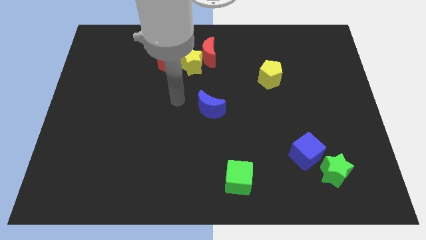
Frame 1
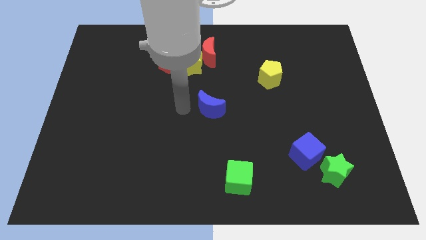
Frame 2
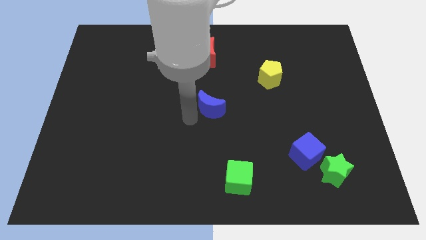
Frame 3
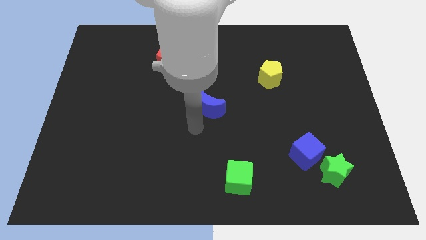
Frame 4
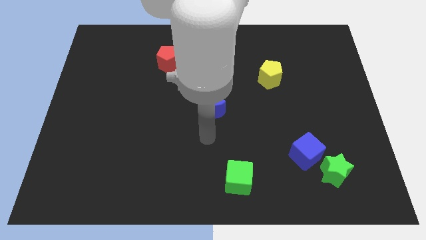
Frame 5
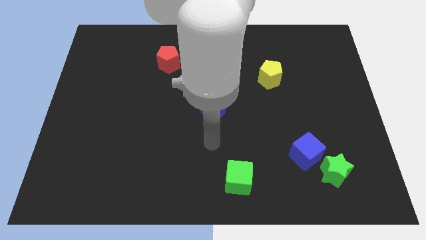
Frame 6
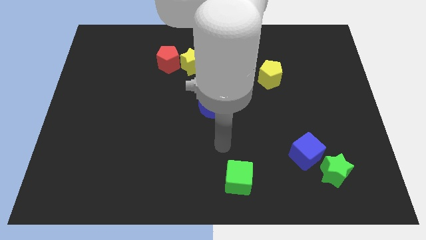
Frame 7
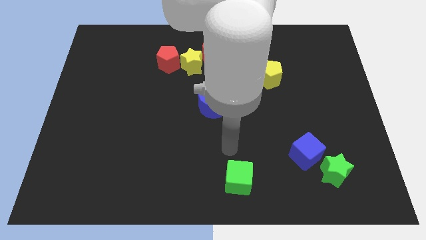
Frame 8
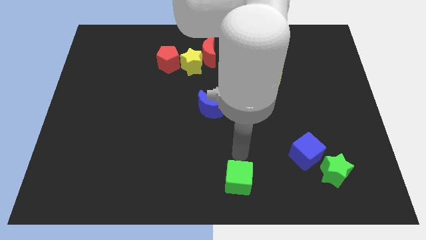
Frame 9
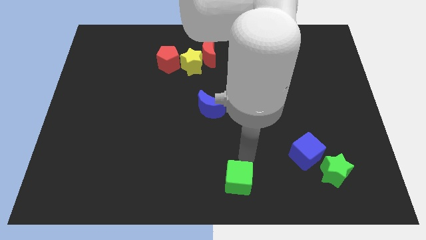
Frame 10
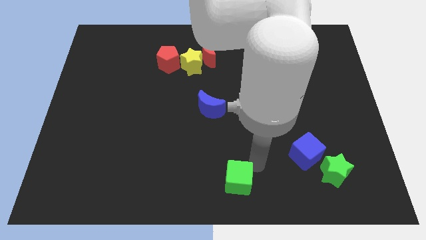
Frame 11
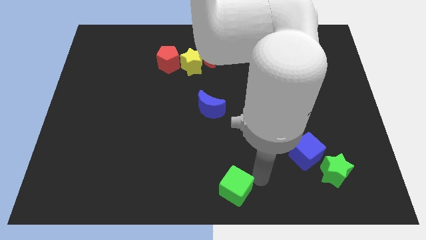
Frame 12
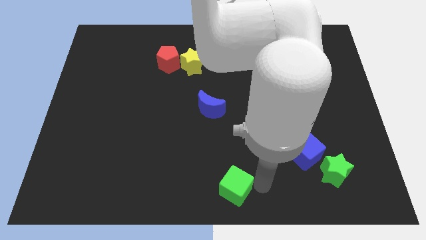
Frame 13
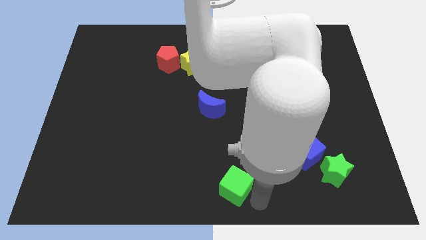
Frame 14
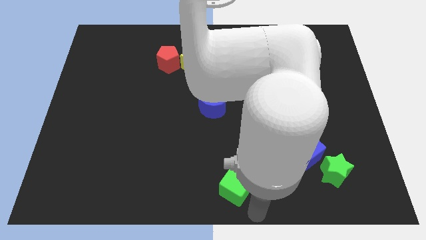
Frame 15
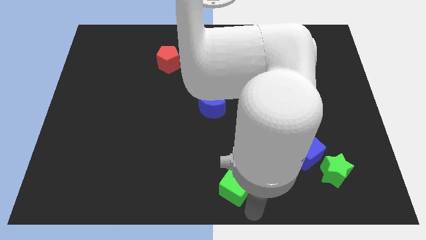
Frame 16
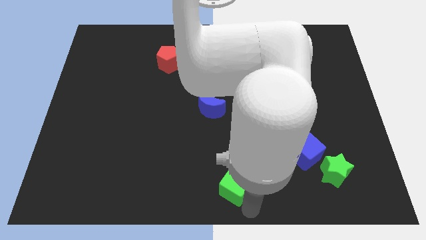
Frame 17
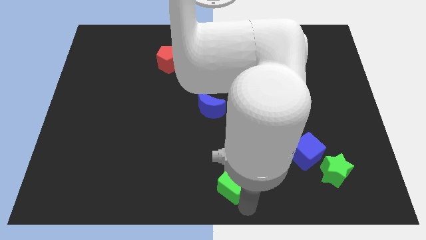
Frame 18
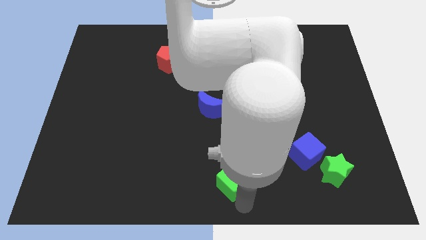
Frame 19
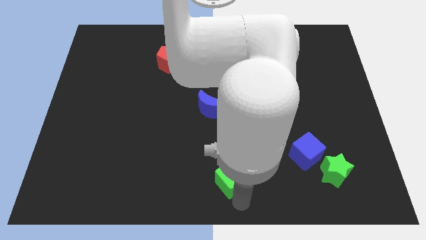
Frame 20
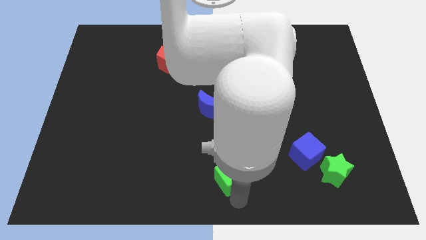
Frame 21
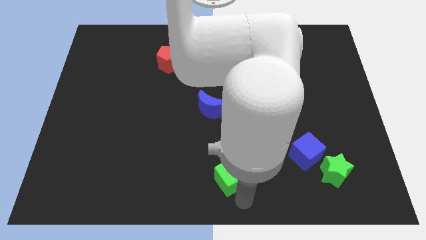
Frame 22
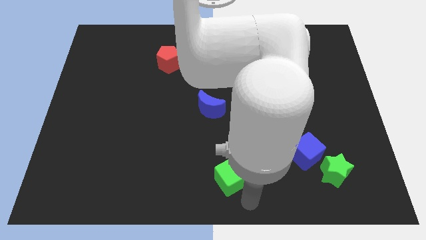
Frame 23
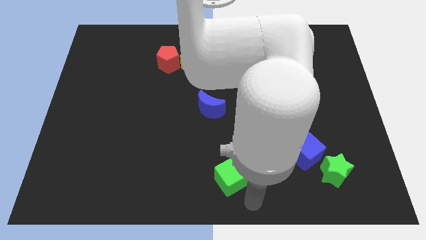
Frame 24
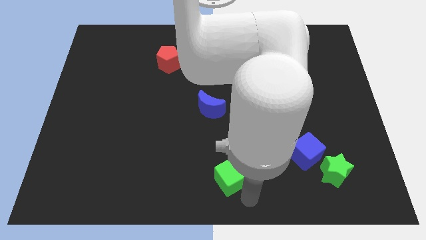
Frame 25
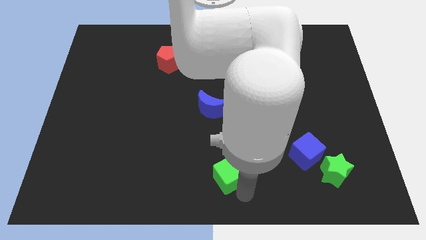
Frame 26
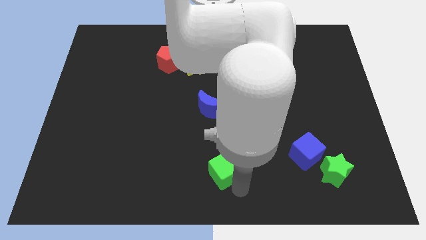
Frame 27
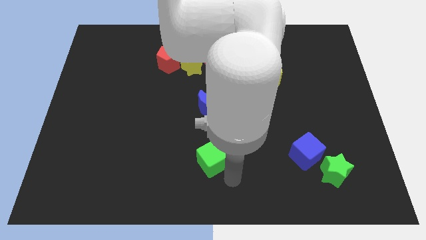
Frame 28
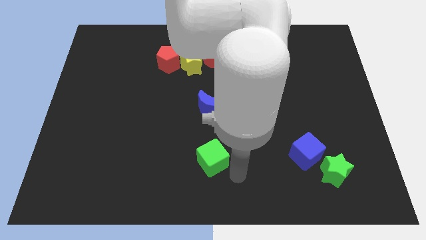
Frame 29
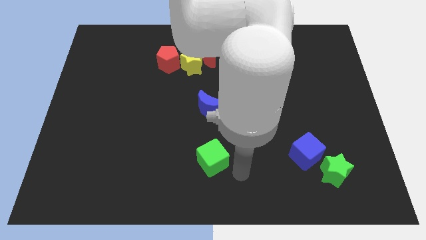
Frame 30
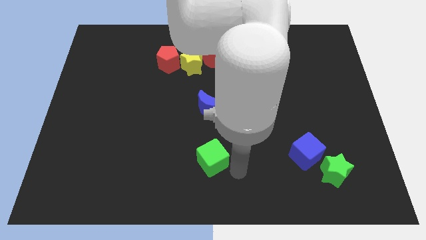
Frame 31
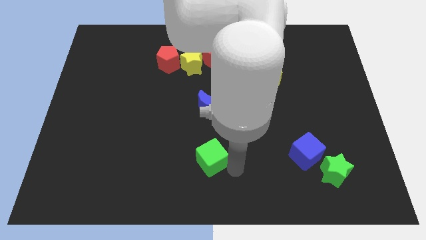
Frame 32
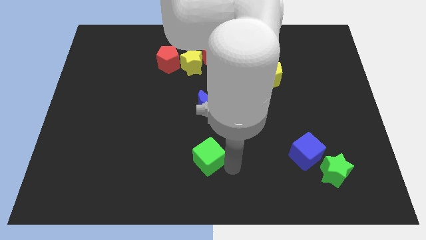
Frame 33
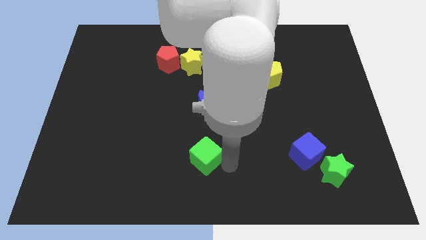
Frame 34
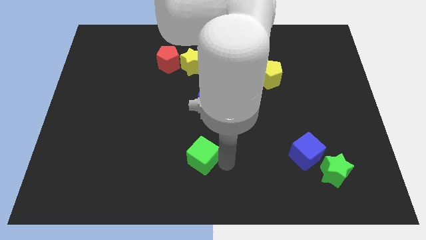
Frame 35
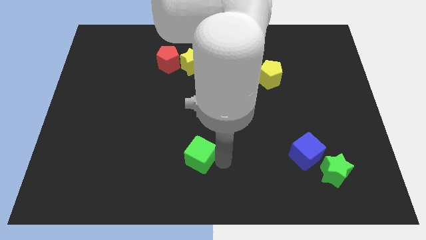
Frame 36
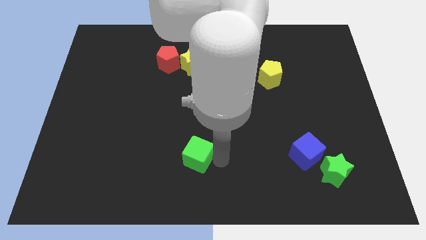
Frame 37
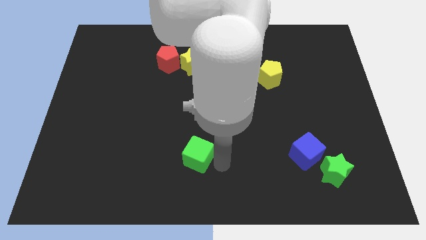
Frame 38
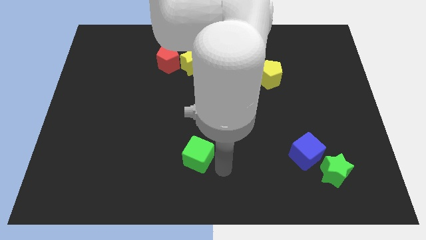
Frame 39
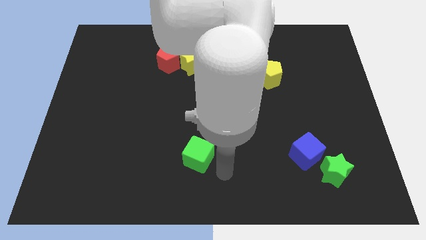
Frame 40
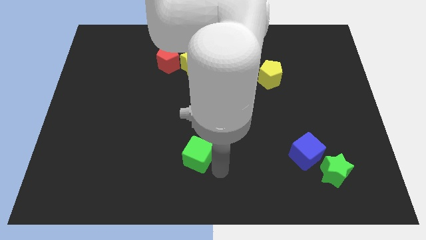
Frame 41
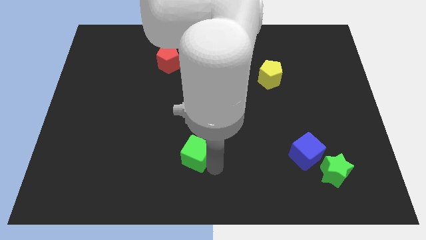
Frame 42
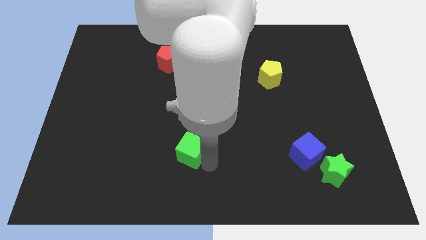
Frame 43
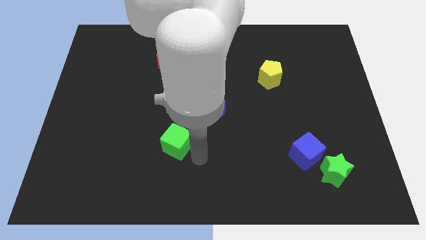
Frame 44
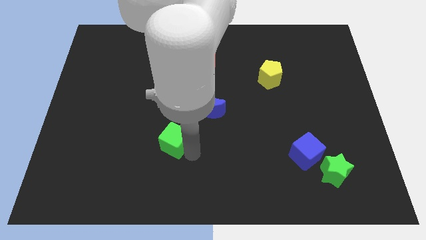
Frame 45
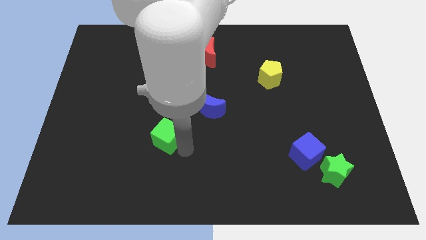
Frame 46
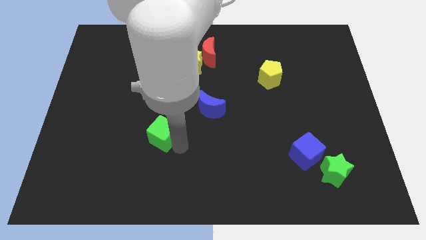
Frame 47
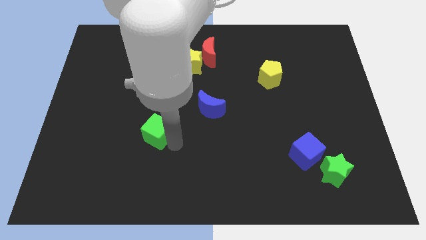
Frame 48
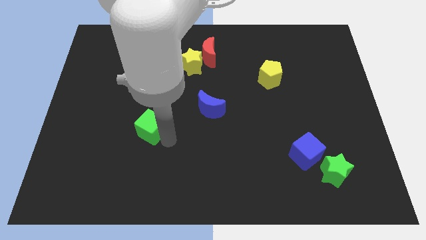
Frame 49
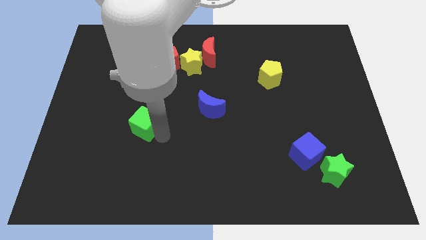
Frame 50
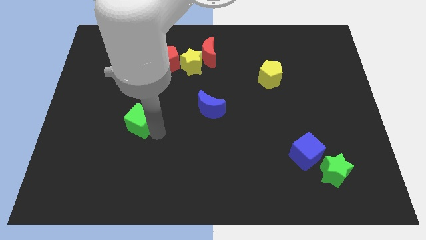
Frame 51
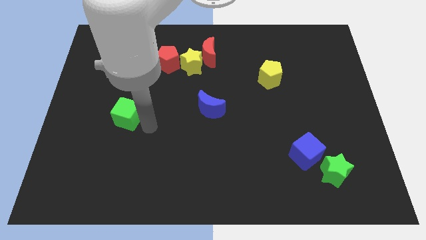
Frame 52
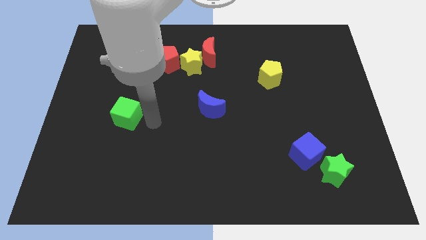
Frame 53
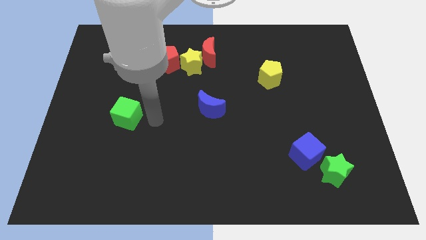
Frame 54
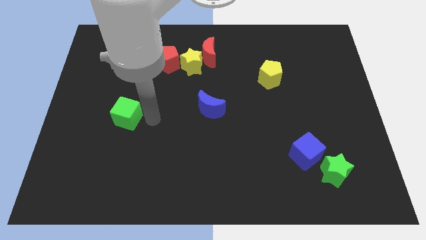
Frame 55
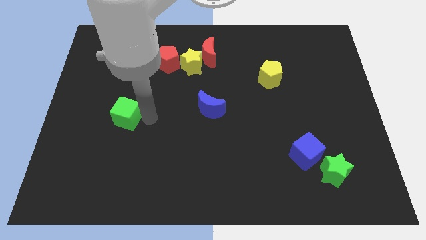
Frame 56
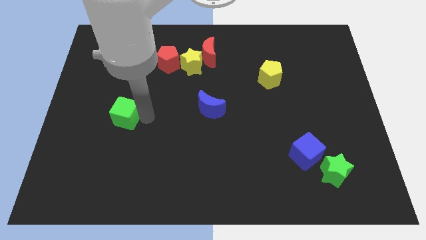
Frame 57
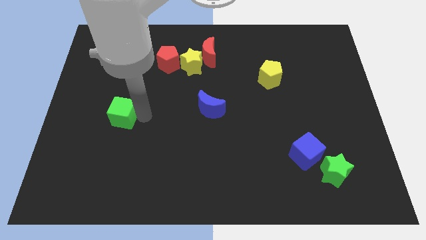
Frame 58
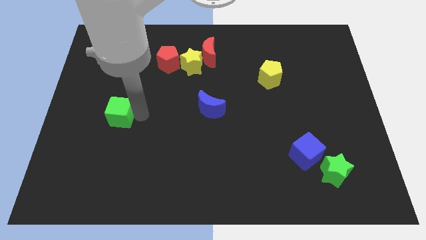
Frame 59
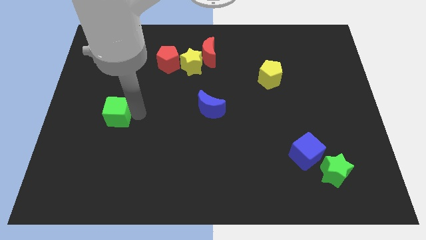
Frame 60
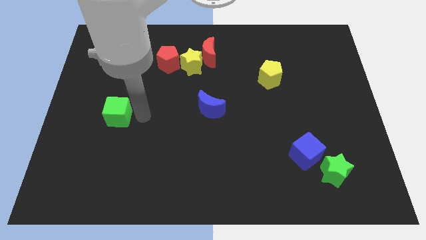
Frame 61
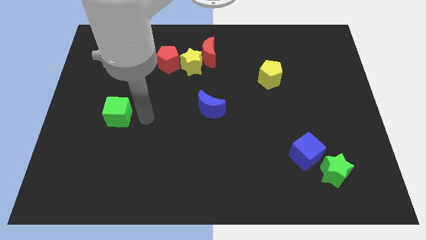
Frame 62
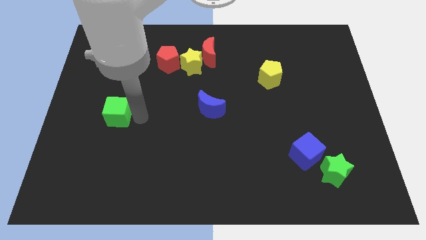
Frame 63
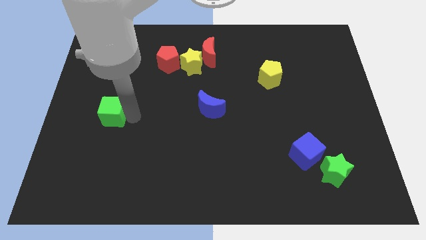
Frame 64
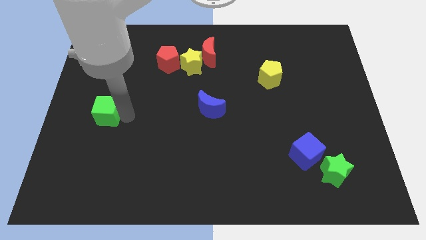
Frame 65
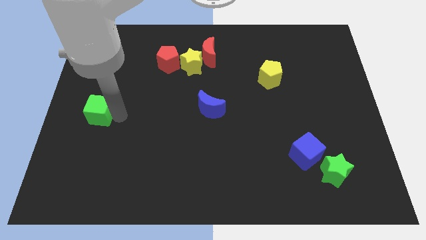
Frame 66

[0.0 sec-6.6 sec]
put the green cube to the left side of the board
